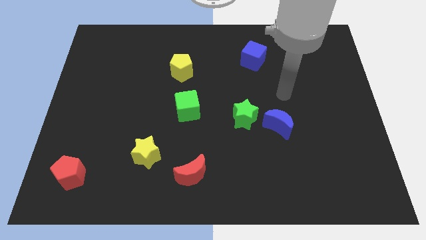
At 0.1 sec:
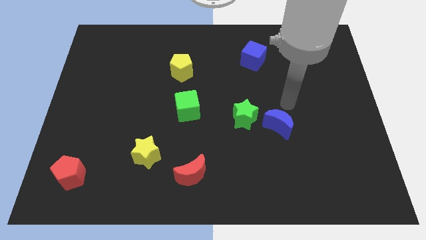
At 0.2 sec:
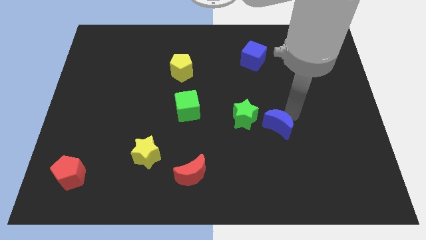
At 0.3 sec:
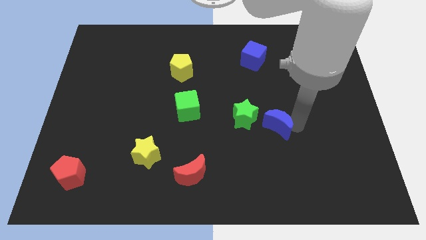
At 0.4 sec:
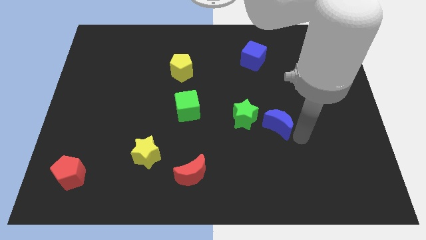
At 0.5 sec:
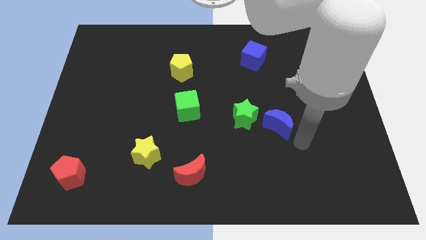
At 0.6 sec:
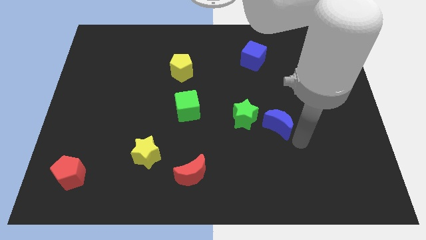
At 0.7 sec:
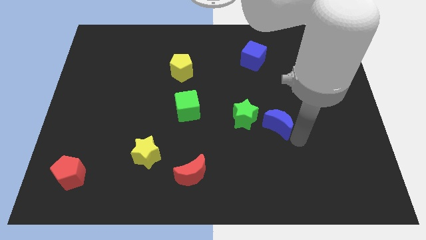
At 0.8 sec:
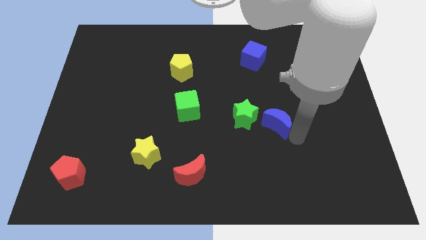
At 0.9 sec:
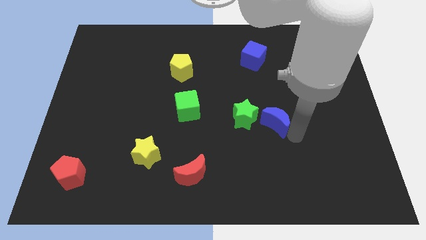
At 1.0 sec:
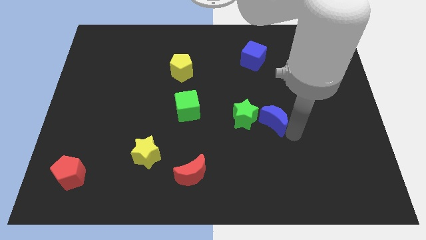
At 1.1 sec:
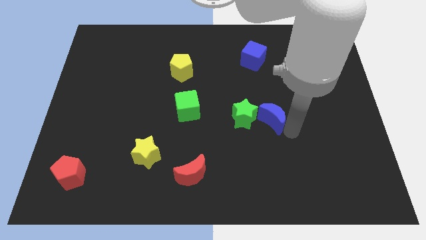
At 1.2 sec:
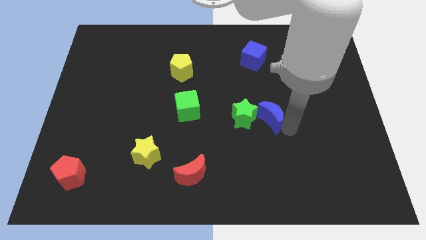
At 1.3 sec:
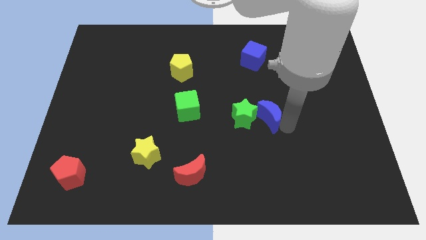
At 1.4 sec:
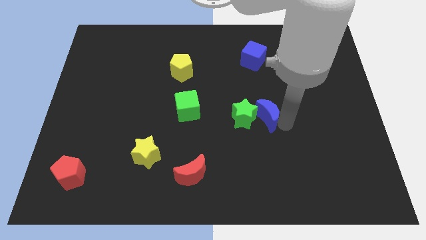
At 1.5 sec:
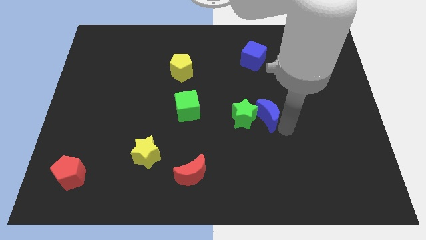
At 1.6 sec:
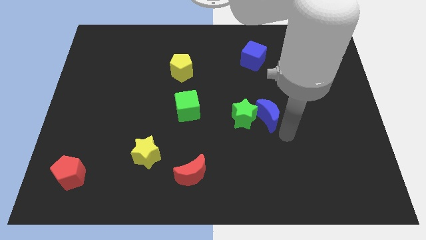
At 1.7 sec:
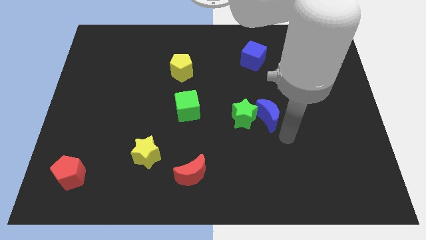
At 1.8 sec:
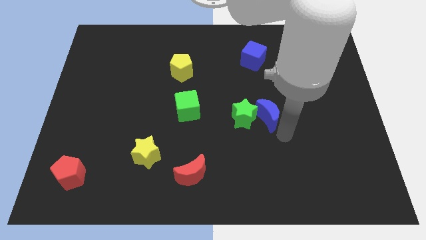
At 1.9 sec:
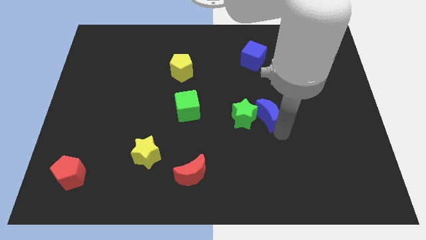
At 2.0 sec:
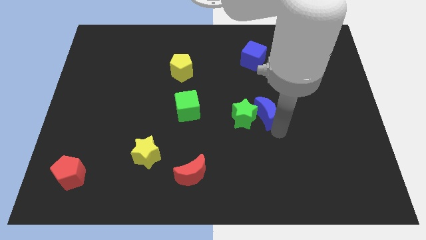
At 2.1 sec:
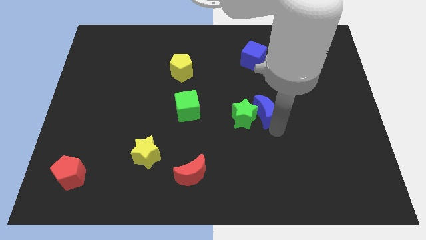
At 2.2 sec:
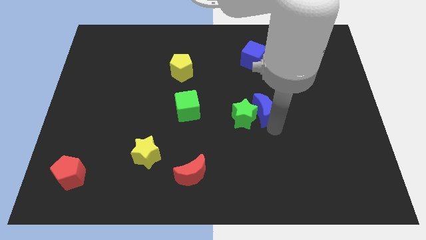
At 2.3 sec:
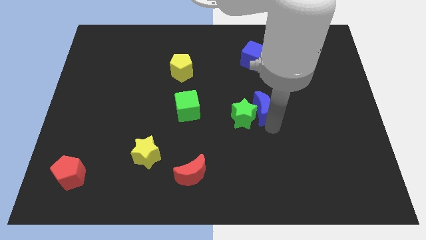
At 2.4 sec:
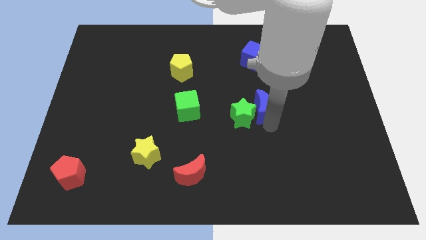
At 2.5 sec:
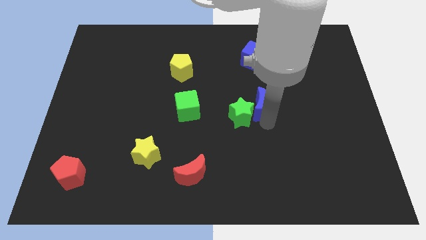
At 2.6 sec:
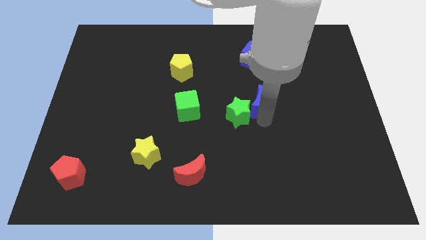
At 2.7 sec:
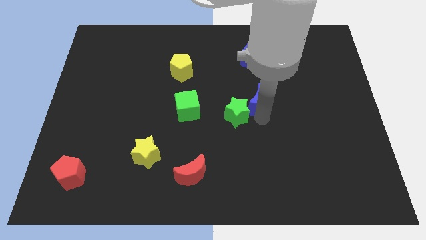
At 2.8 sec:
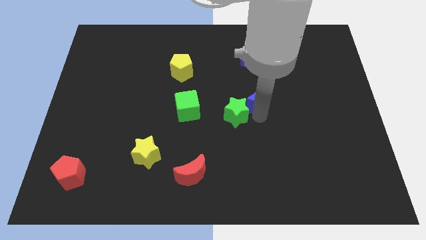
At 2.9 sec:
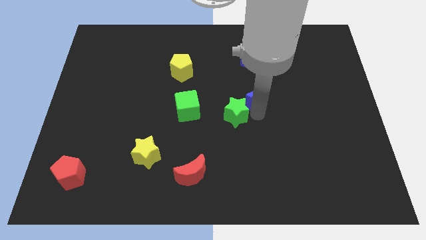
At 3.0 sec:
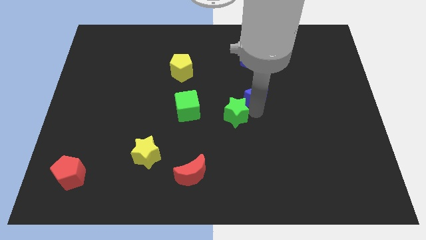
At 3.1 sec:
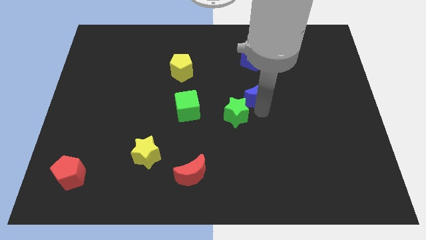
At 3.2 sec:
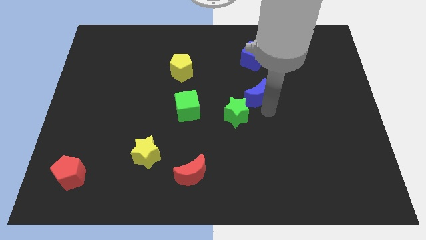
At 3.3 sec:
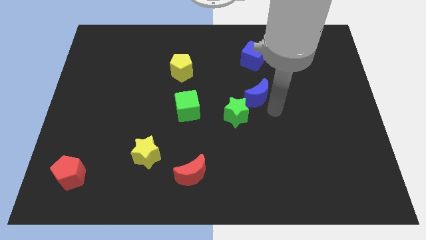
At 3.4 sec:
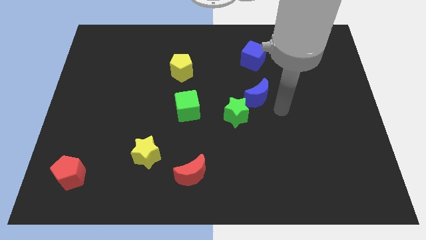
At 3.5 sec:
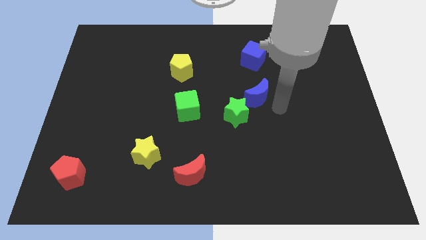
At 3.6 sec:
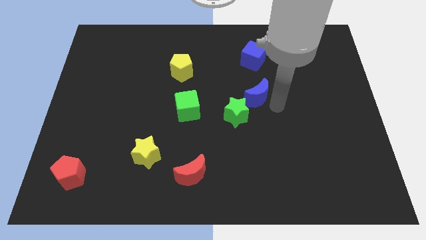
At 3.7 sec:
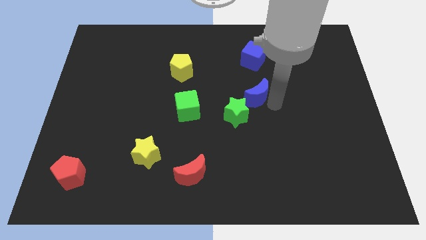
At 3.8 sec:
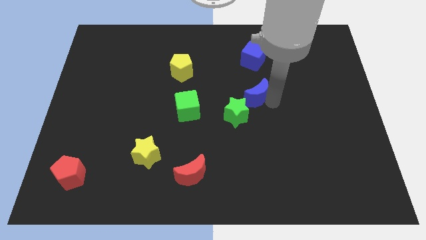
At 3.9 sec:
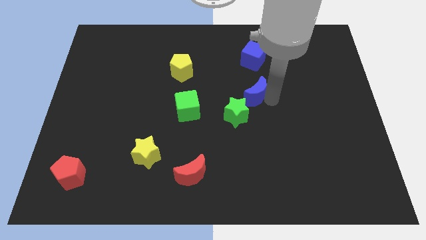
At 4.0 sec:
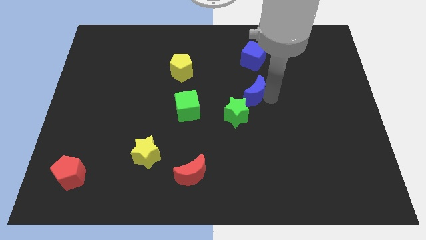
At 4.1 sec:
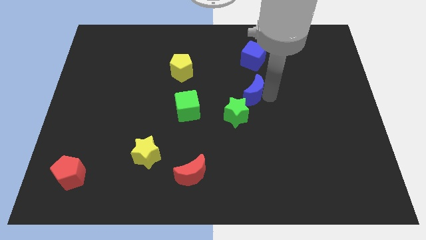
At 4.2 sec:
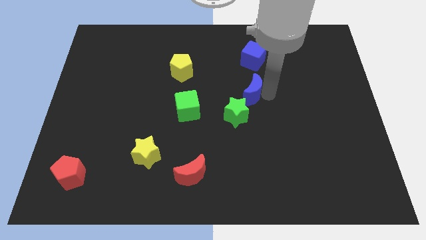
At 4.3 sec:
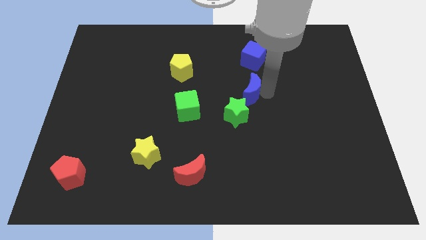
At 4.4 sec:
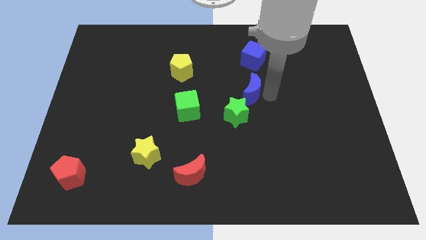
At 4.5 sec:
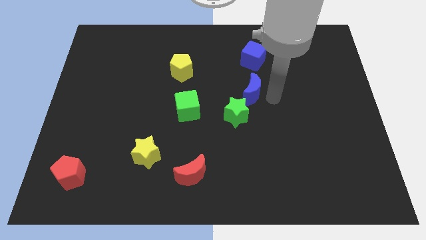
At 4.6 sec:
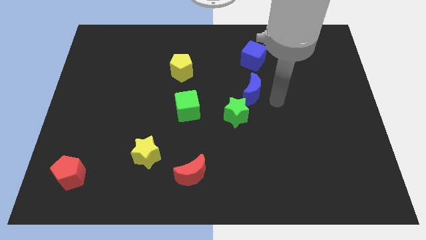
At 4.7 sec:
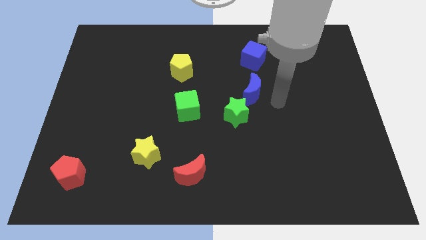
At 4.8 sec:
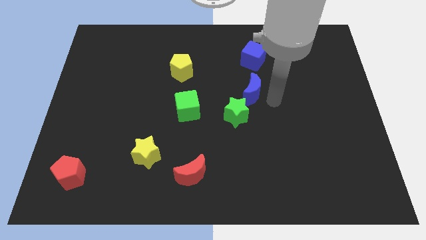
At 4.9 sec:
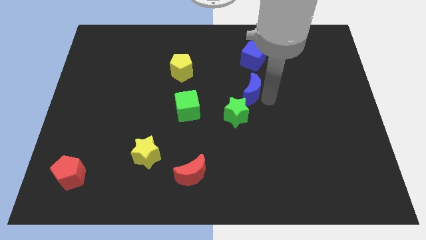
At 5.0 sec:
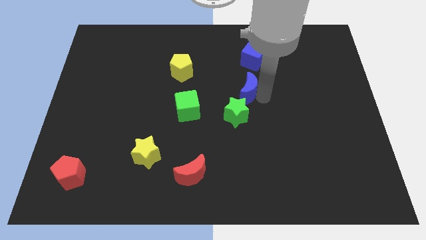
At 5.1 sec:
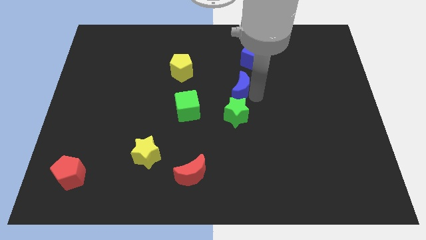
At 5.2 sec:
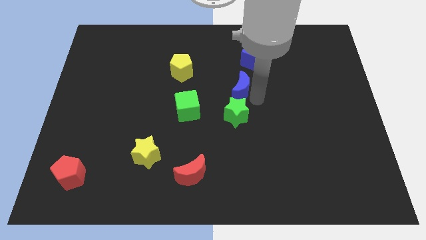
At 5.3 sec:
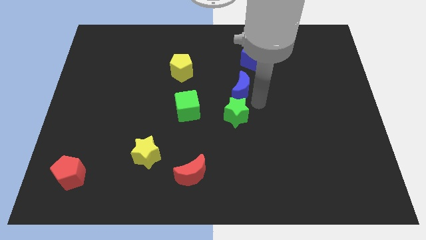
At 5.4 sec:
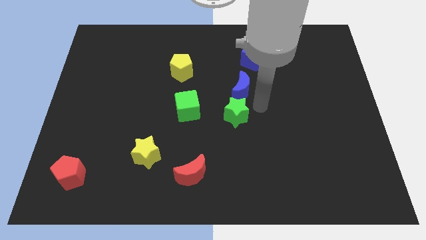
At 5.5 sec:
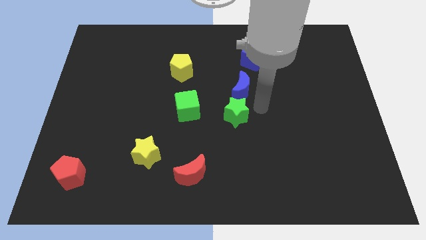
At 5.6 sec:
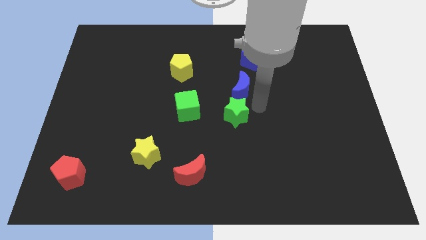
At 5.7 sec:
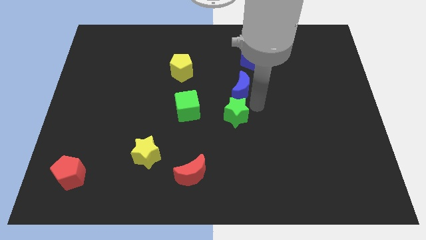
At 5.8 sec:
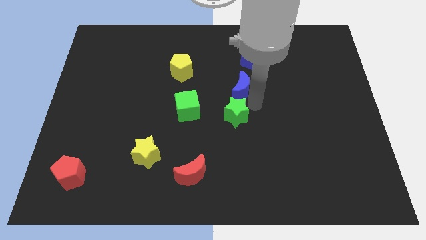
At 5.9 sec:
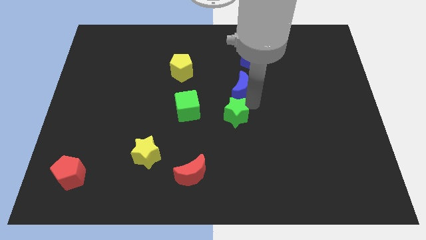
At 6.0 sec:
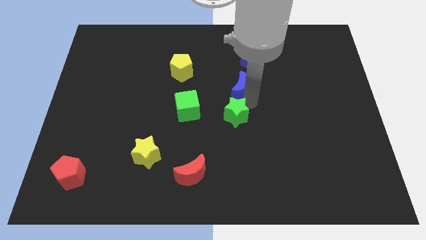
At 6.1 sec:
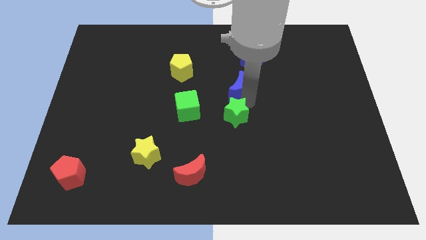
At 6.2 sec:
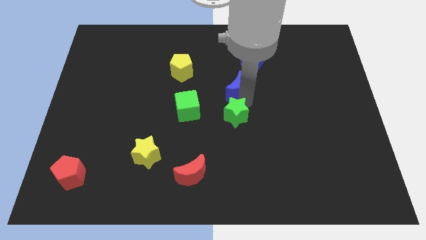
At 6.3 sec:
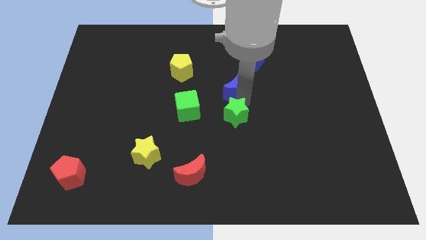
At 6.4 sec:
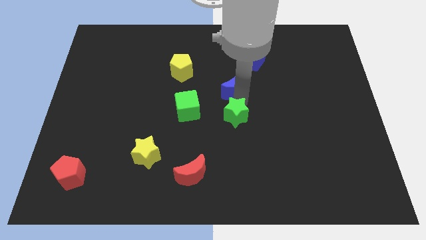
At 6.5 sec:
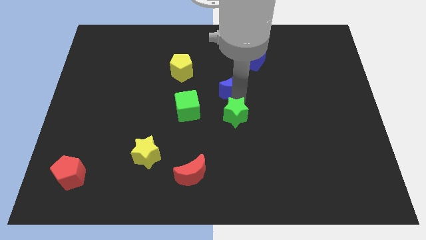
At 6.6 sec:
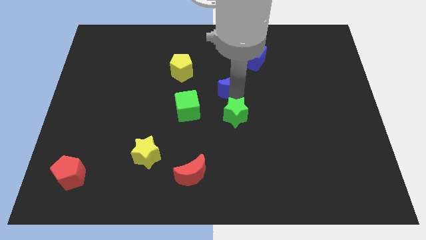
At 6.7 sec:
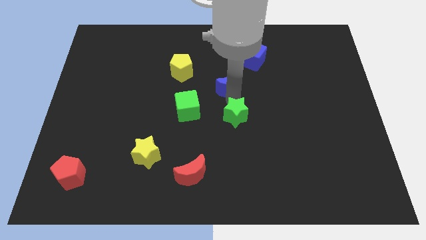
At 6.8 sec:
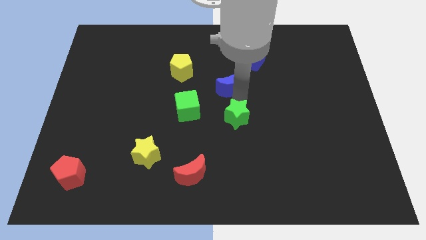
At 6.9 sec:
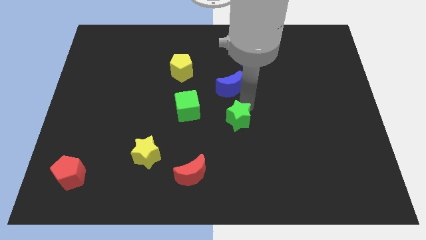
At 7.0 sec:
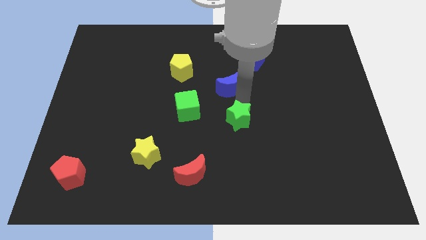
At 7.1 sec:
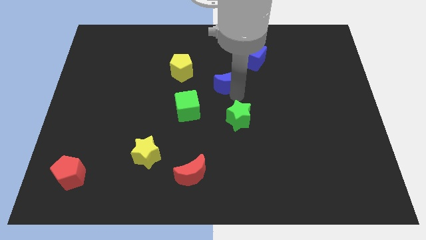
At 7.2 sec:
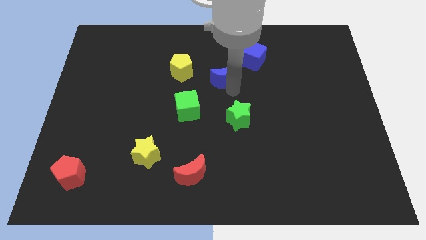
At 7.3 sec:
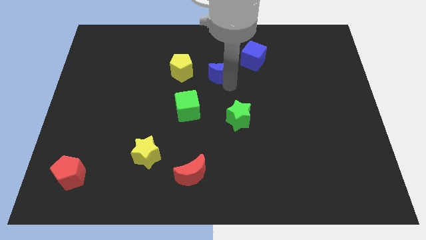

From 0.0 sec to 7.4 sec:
move the blue moon up and left

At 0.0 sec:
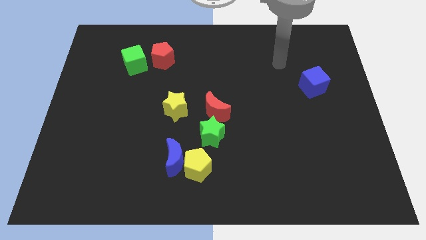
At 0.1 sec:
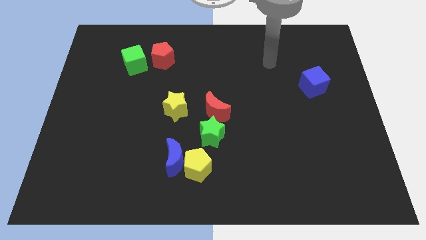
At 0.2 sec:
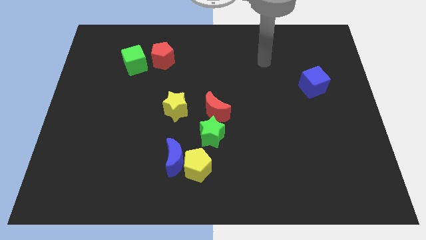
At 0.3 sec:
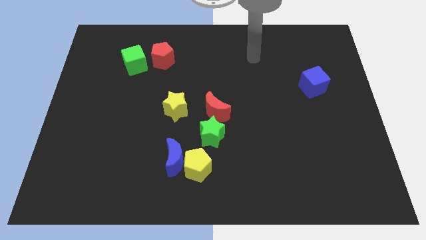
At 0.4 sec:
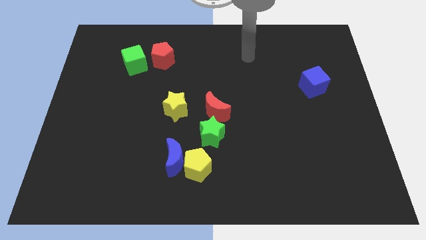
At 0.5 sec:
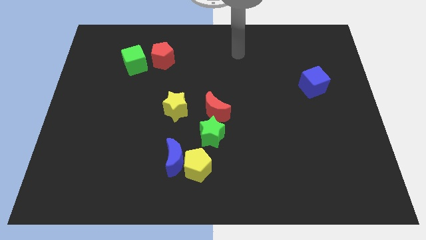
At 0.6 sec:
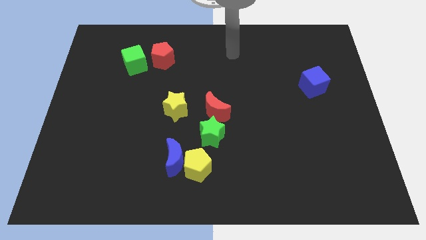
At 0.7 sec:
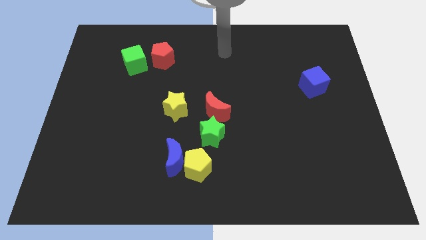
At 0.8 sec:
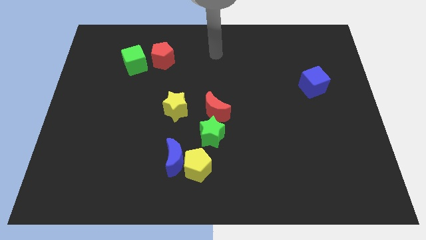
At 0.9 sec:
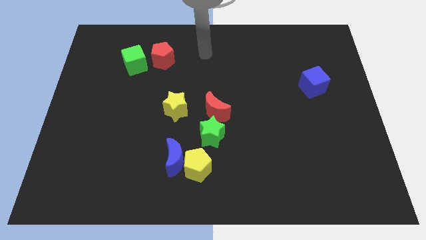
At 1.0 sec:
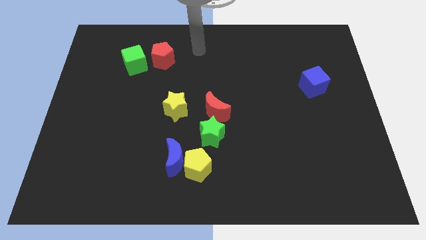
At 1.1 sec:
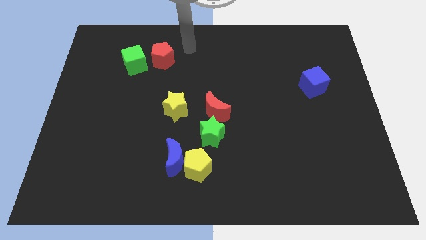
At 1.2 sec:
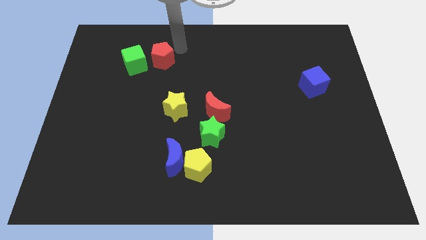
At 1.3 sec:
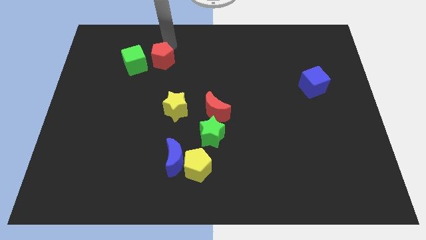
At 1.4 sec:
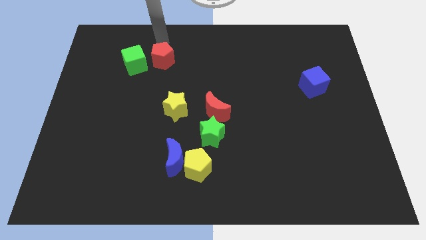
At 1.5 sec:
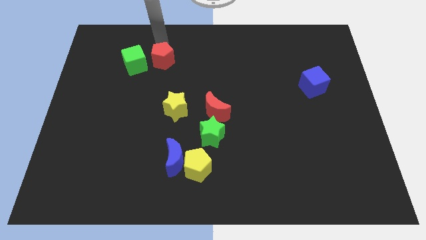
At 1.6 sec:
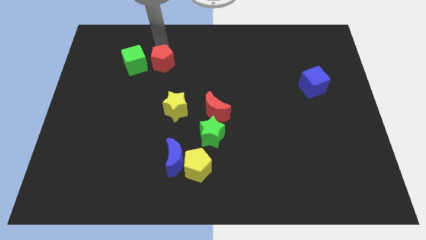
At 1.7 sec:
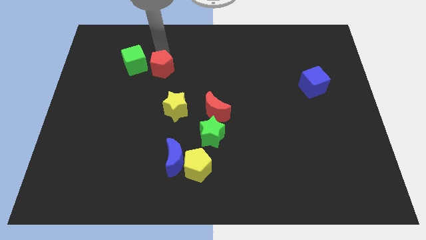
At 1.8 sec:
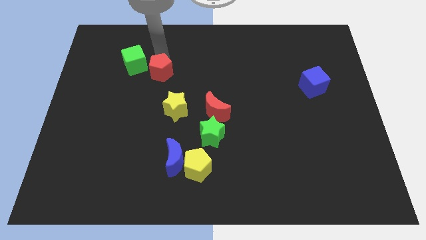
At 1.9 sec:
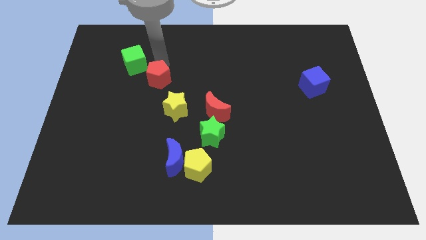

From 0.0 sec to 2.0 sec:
slide the red pentagon somewhat downwards
